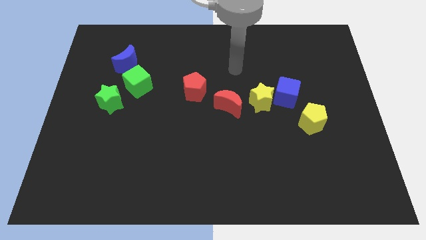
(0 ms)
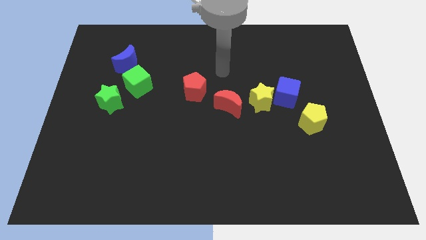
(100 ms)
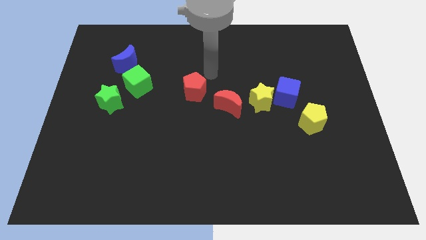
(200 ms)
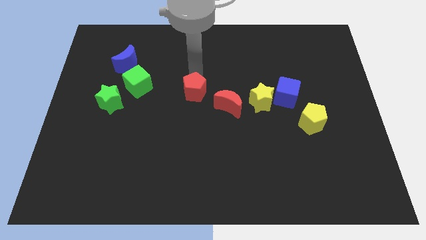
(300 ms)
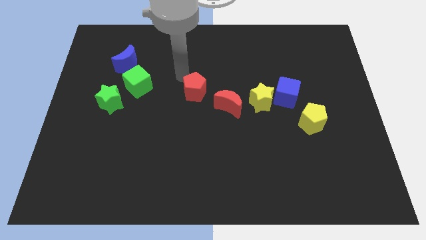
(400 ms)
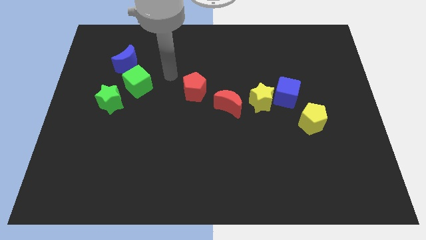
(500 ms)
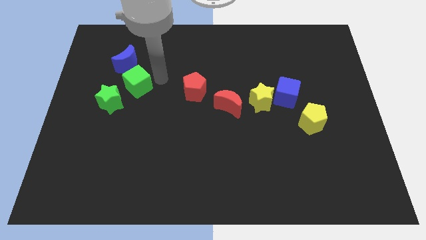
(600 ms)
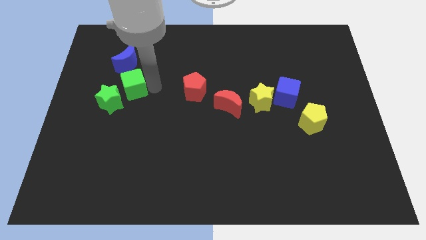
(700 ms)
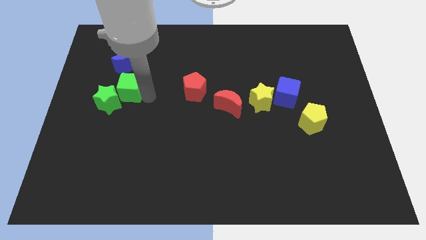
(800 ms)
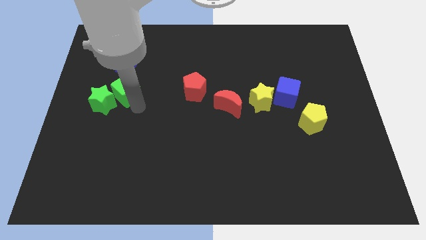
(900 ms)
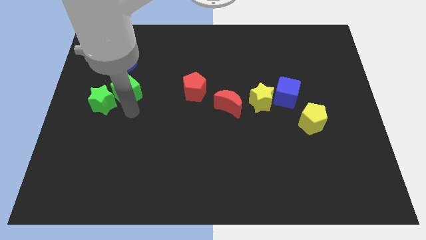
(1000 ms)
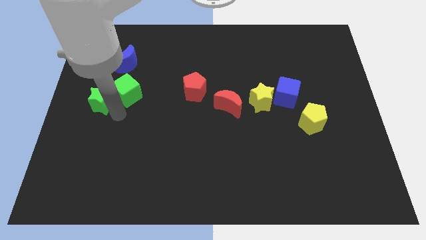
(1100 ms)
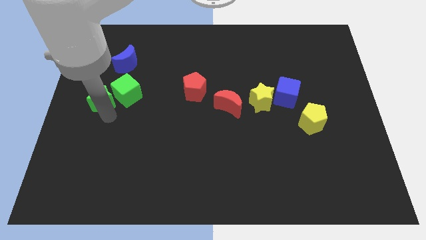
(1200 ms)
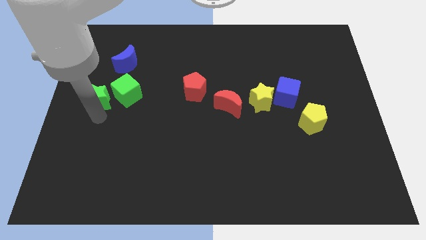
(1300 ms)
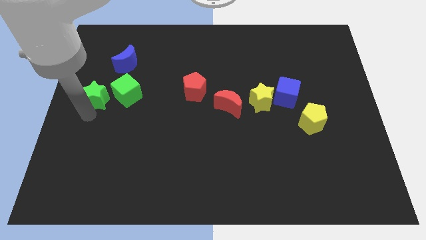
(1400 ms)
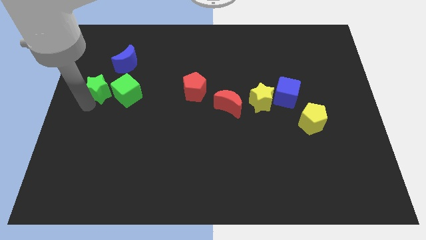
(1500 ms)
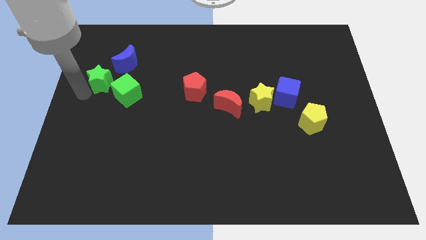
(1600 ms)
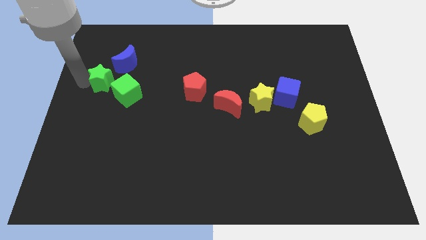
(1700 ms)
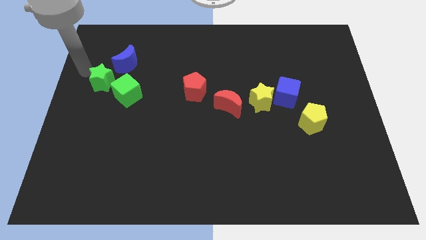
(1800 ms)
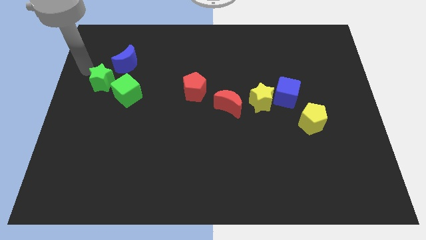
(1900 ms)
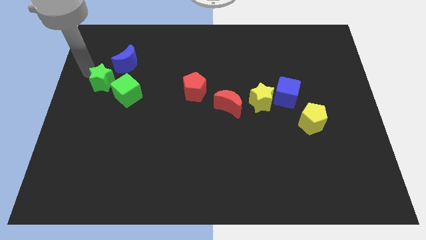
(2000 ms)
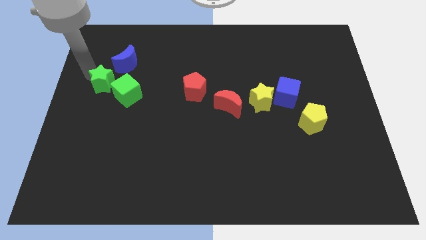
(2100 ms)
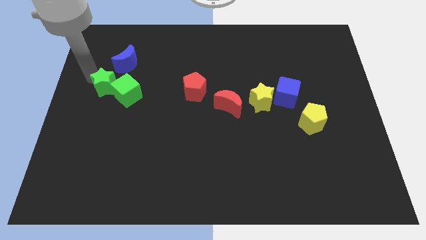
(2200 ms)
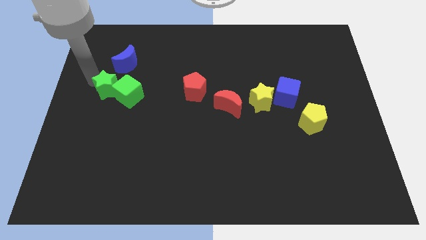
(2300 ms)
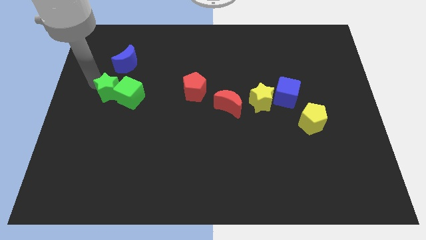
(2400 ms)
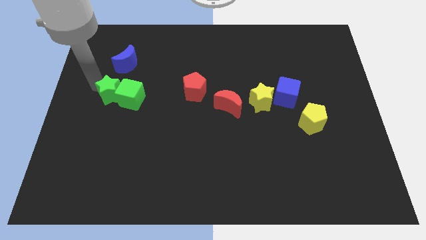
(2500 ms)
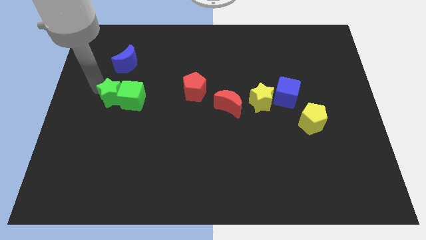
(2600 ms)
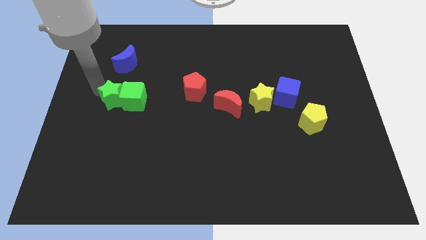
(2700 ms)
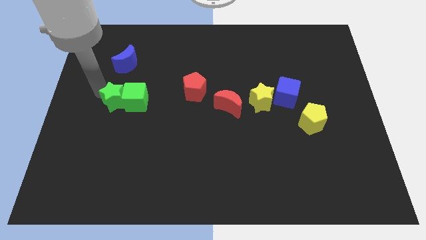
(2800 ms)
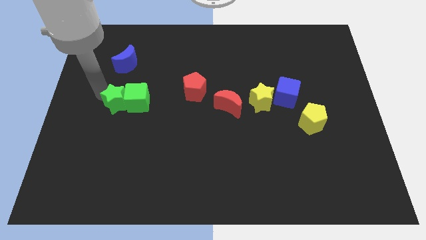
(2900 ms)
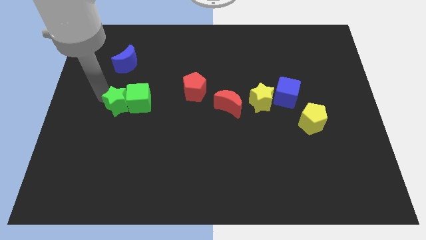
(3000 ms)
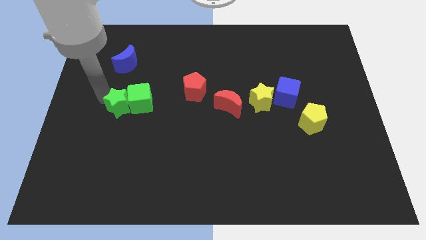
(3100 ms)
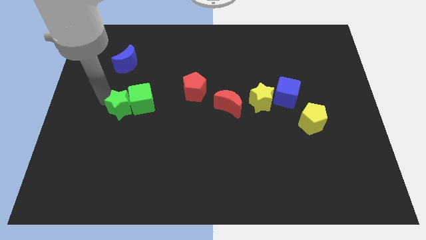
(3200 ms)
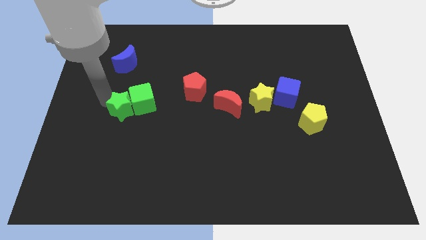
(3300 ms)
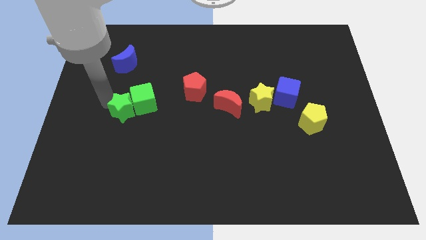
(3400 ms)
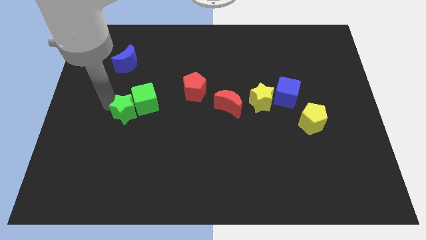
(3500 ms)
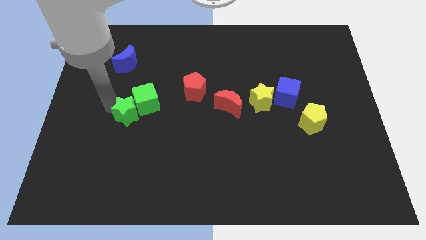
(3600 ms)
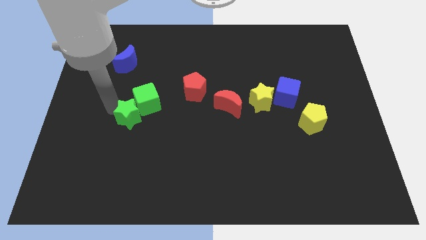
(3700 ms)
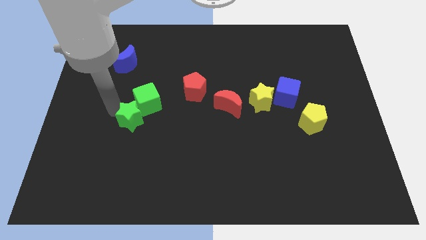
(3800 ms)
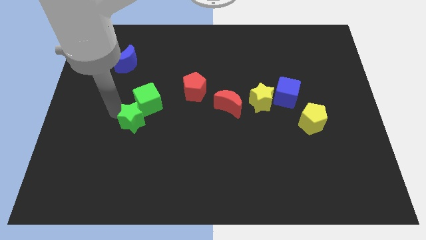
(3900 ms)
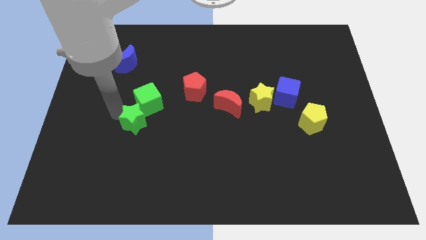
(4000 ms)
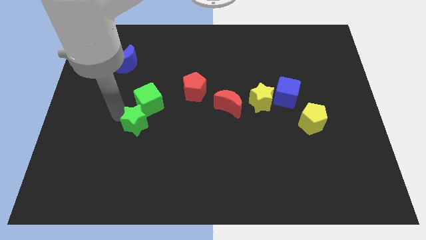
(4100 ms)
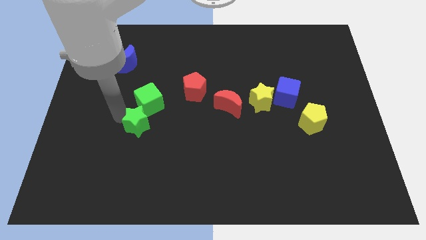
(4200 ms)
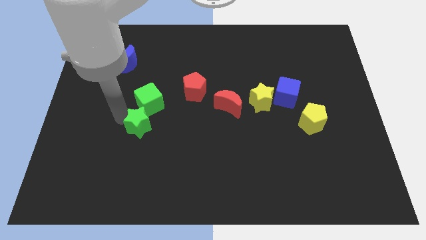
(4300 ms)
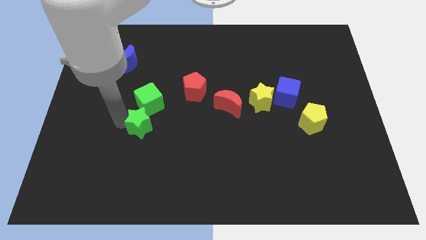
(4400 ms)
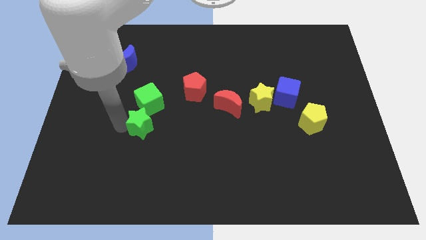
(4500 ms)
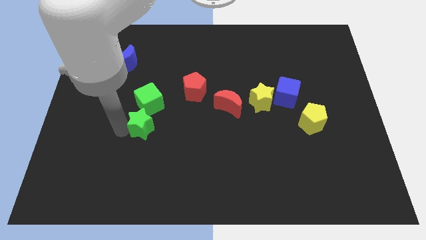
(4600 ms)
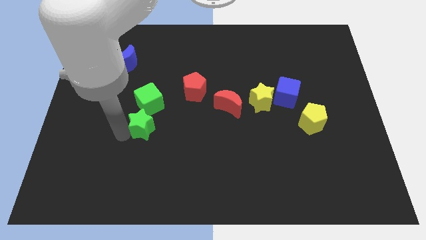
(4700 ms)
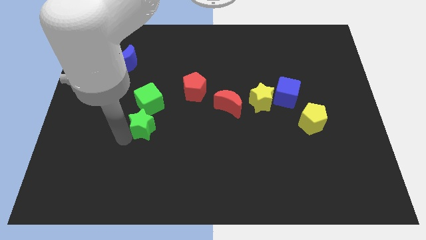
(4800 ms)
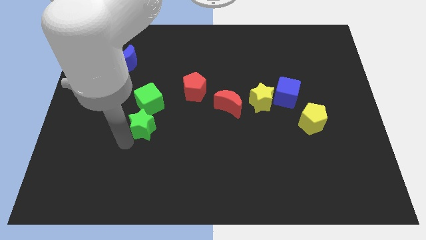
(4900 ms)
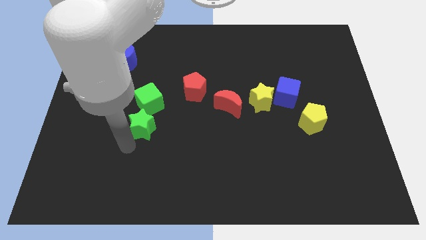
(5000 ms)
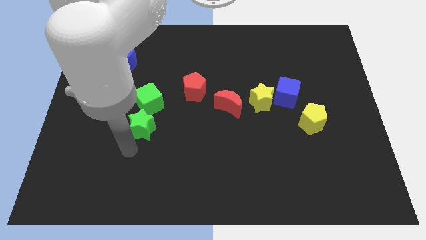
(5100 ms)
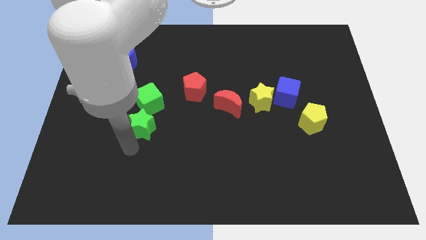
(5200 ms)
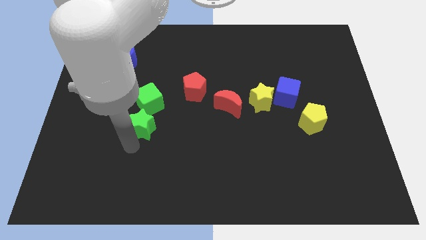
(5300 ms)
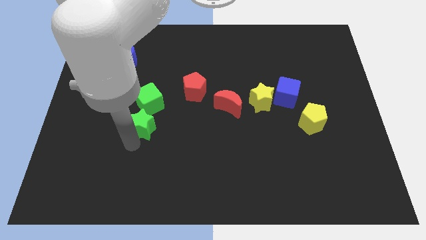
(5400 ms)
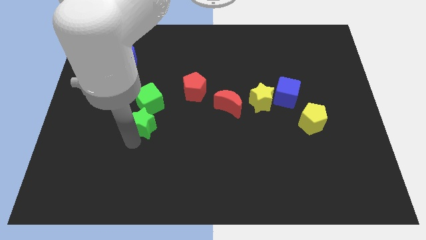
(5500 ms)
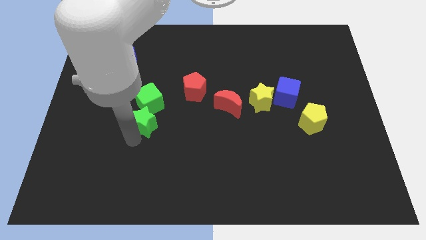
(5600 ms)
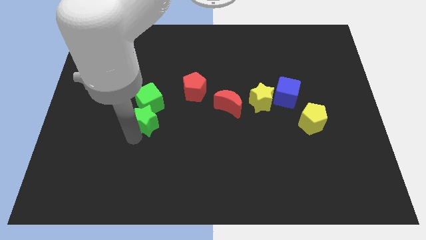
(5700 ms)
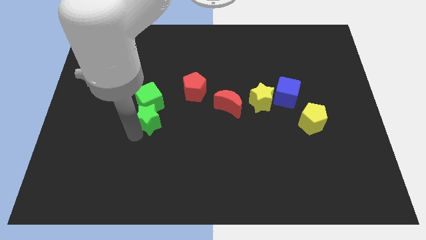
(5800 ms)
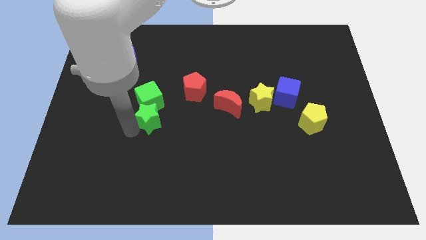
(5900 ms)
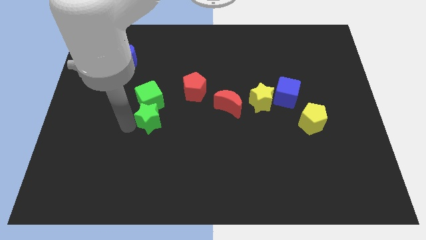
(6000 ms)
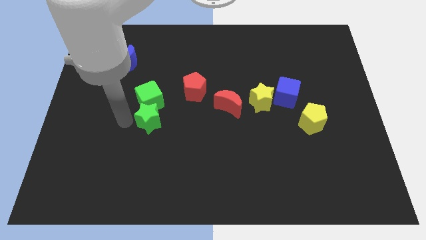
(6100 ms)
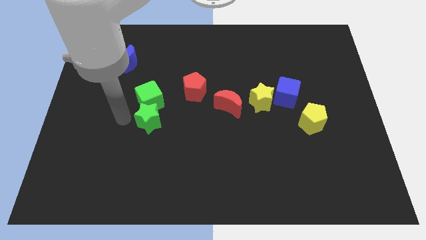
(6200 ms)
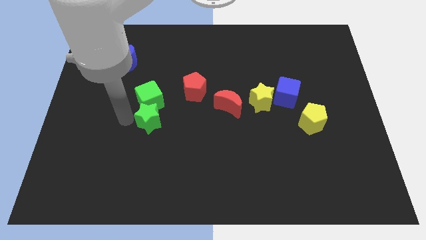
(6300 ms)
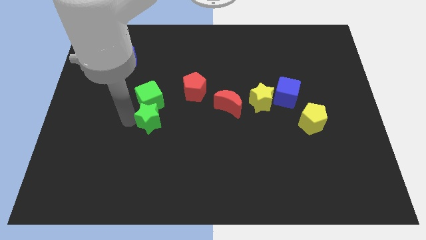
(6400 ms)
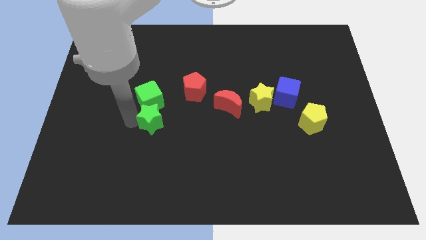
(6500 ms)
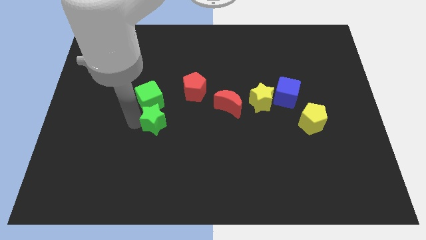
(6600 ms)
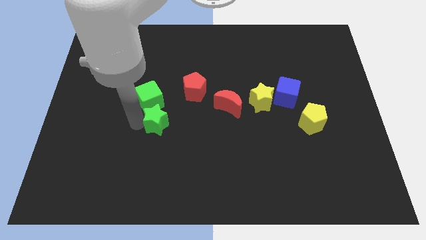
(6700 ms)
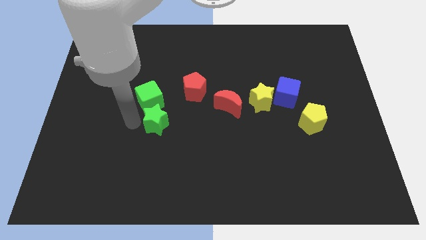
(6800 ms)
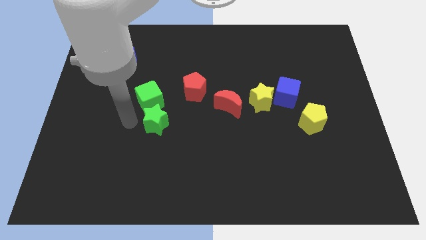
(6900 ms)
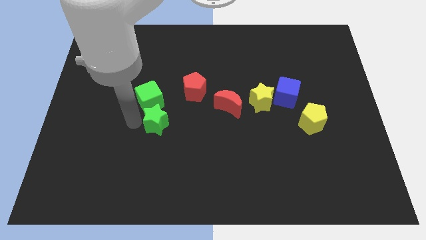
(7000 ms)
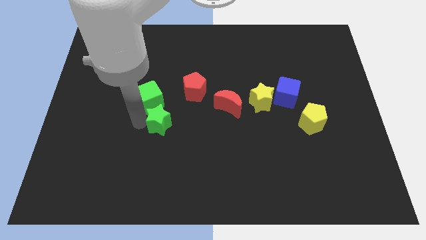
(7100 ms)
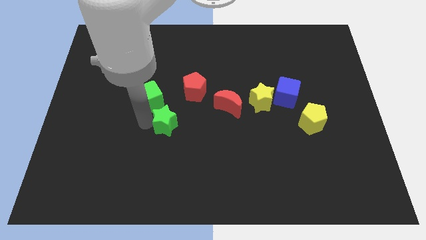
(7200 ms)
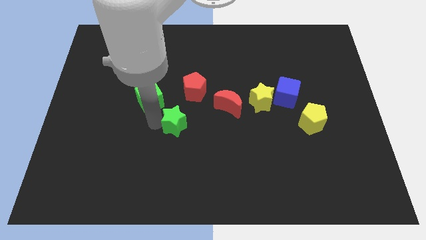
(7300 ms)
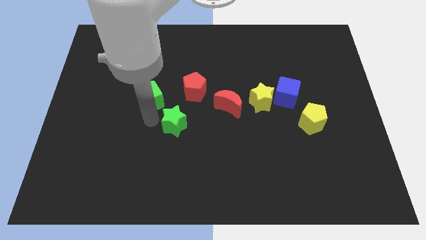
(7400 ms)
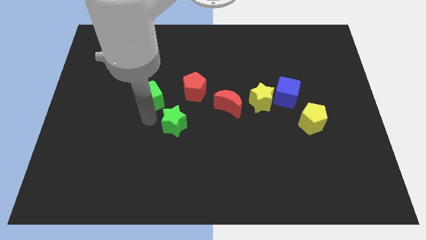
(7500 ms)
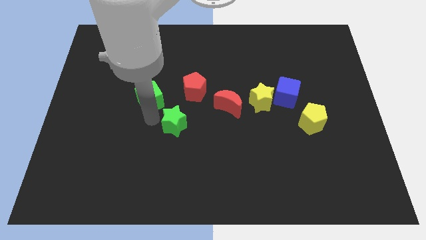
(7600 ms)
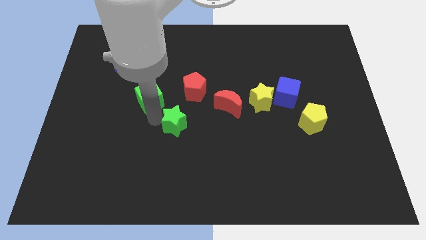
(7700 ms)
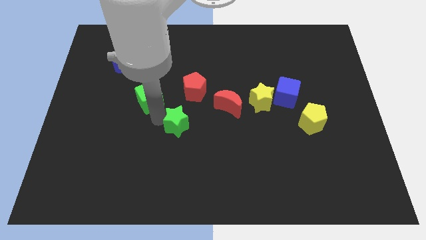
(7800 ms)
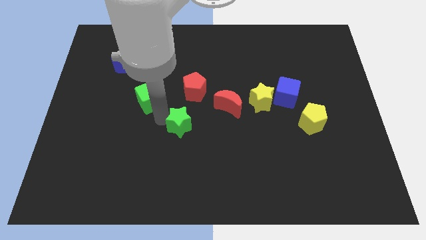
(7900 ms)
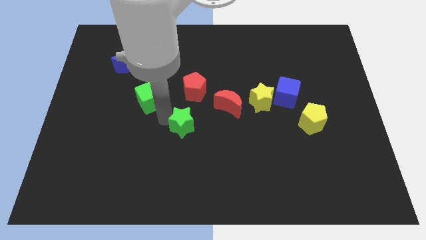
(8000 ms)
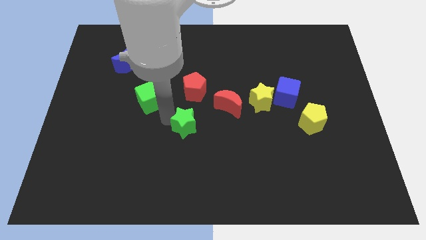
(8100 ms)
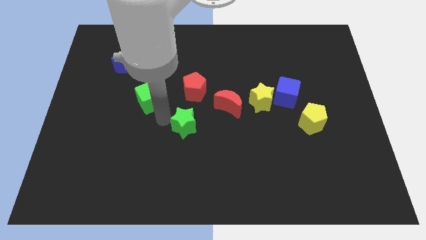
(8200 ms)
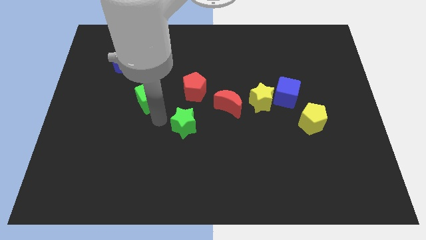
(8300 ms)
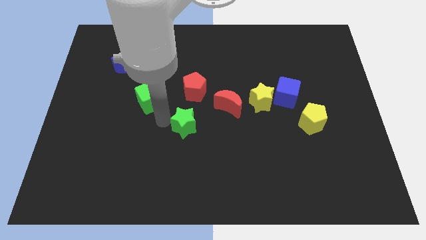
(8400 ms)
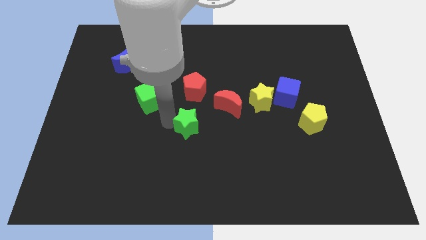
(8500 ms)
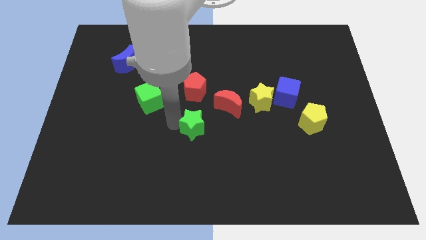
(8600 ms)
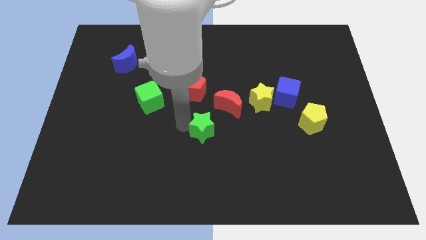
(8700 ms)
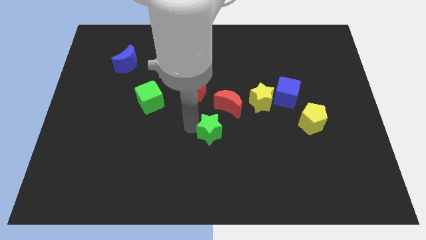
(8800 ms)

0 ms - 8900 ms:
move the green star to the bottom side of the red moon
